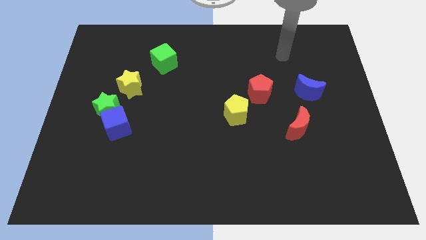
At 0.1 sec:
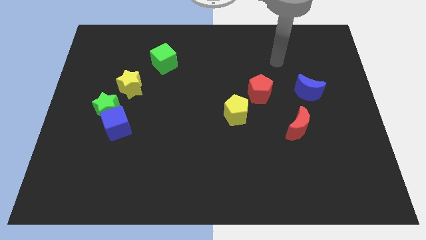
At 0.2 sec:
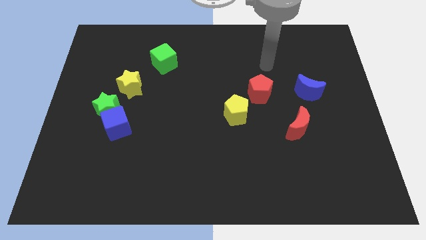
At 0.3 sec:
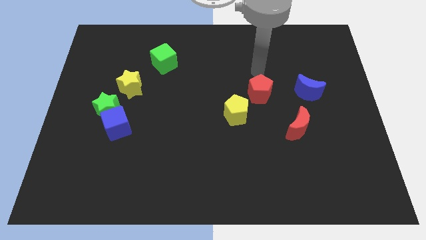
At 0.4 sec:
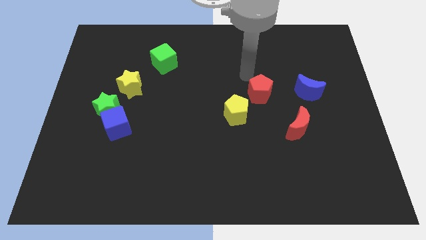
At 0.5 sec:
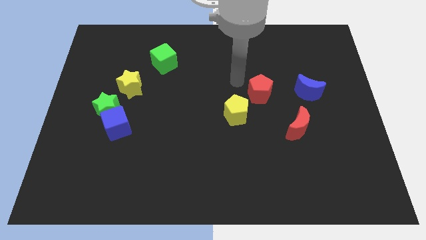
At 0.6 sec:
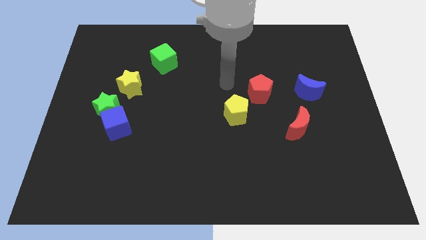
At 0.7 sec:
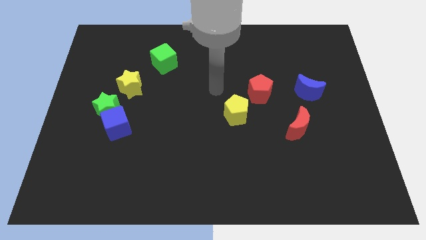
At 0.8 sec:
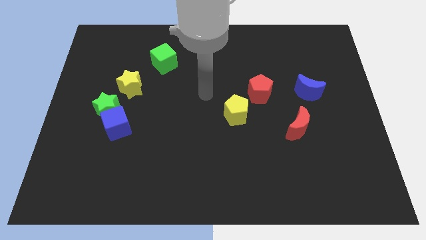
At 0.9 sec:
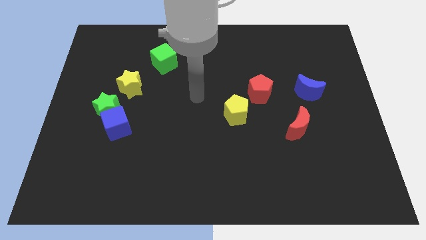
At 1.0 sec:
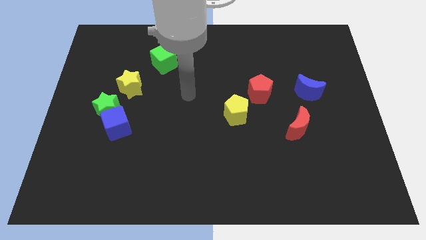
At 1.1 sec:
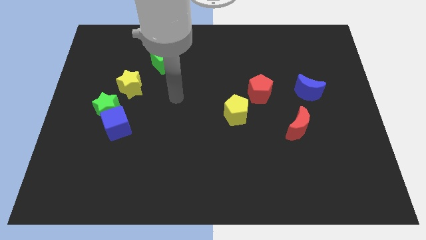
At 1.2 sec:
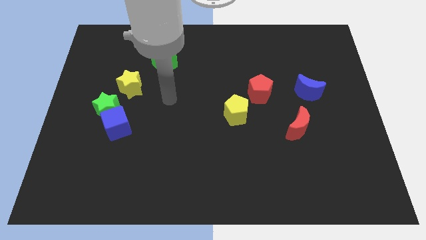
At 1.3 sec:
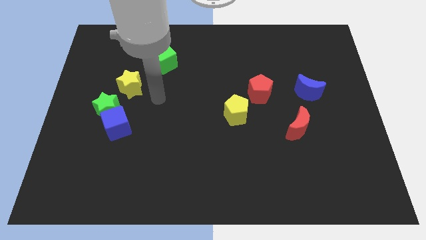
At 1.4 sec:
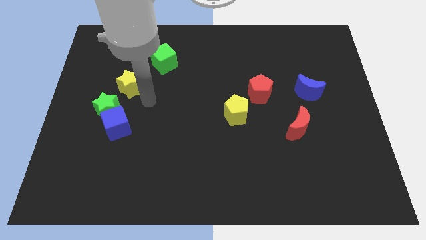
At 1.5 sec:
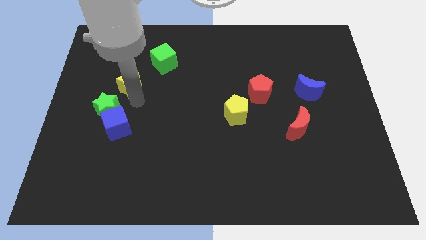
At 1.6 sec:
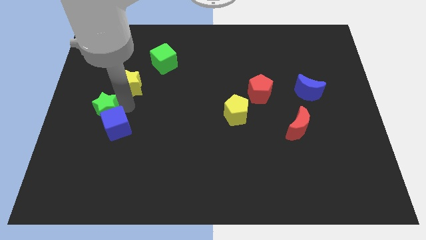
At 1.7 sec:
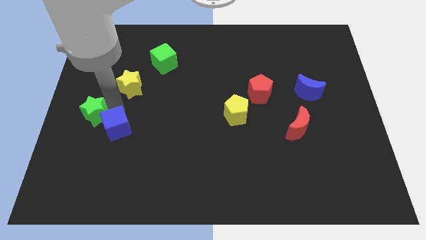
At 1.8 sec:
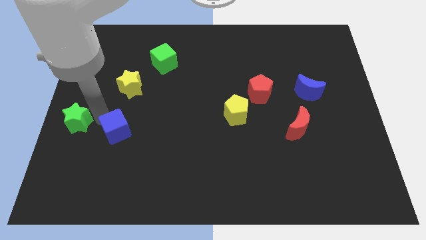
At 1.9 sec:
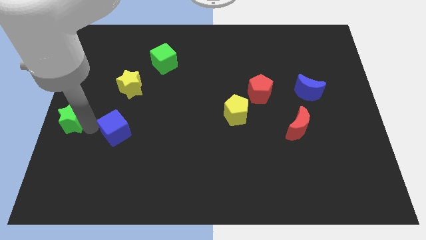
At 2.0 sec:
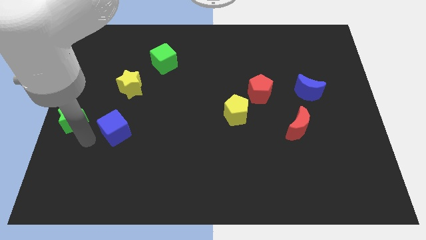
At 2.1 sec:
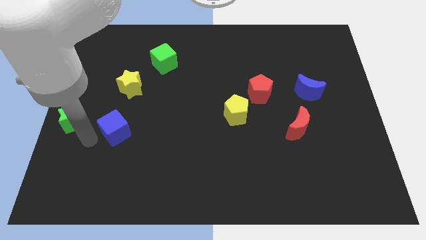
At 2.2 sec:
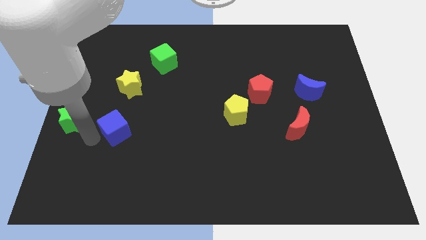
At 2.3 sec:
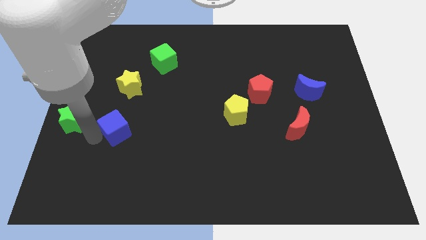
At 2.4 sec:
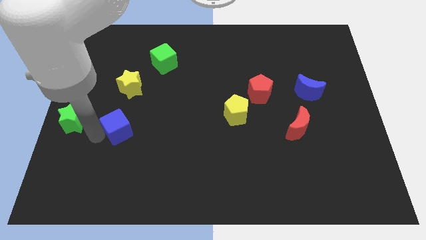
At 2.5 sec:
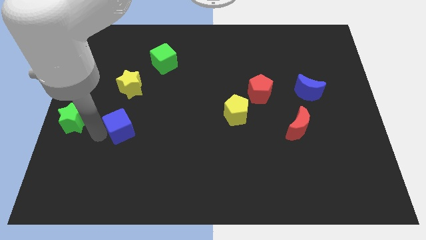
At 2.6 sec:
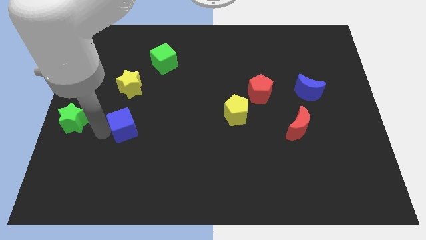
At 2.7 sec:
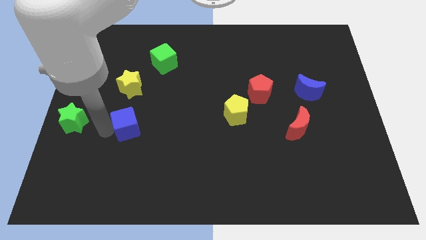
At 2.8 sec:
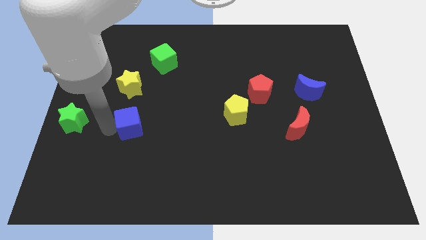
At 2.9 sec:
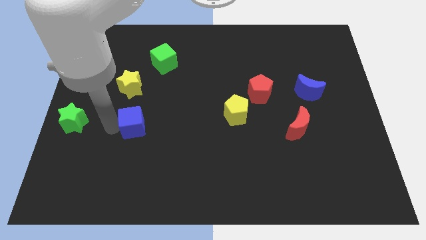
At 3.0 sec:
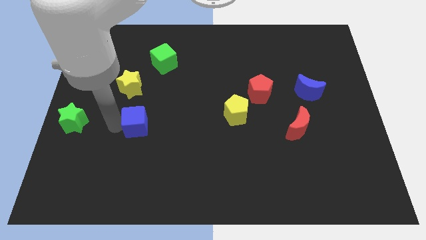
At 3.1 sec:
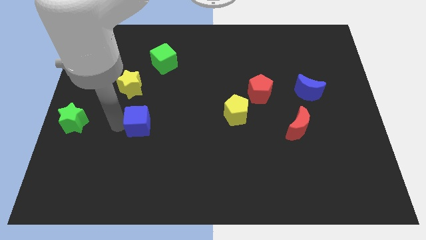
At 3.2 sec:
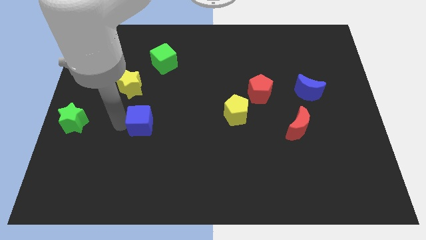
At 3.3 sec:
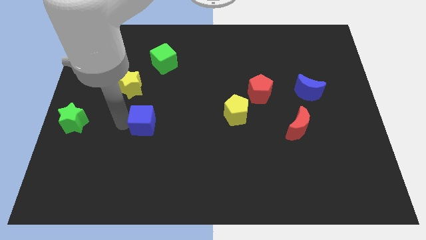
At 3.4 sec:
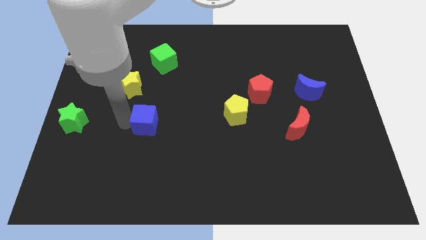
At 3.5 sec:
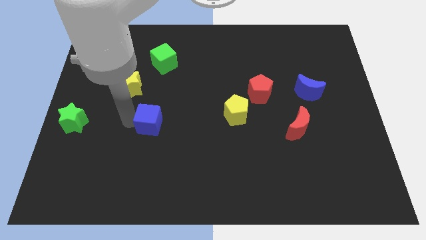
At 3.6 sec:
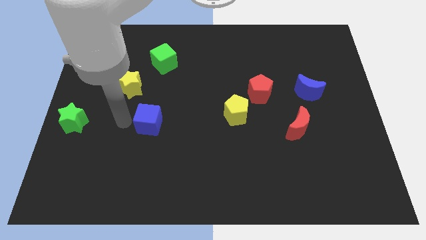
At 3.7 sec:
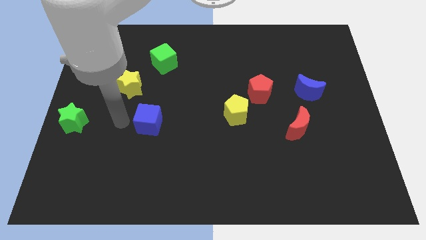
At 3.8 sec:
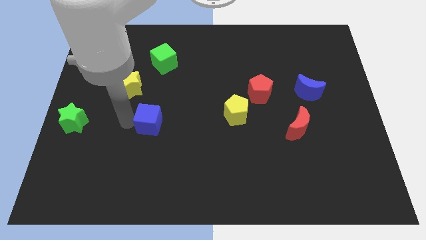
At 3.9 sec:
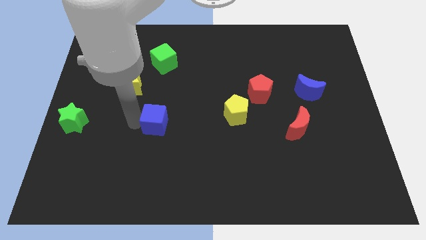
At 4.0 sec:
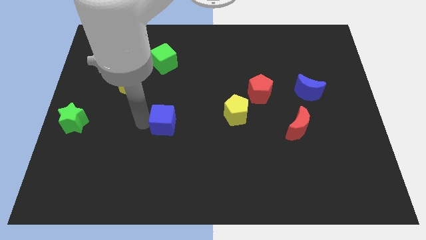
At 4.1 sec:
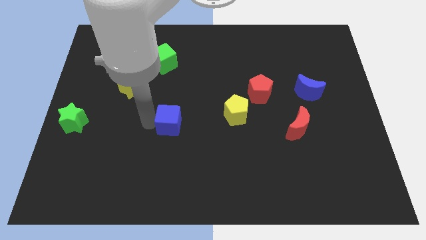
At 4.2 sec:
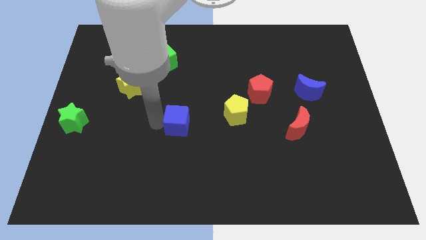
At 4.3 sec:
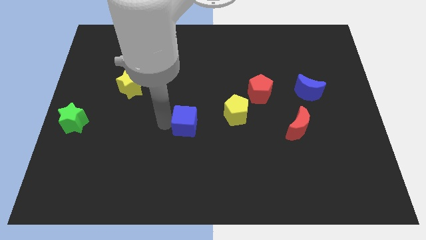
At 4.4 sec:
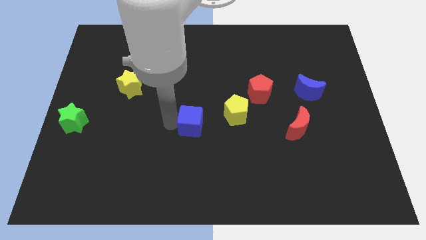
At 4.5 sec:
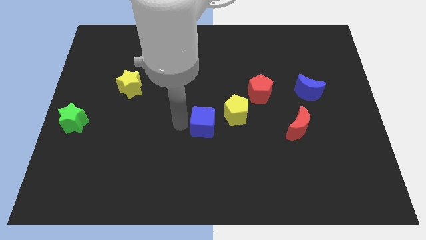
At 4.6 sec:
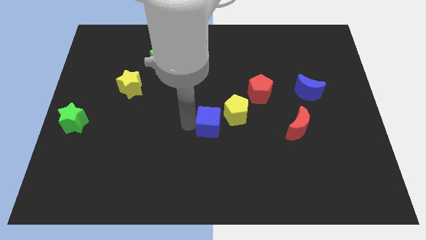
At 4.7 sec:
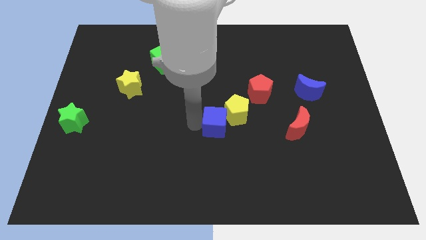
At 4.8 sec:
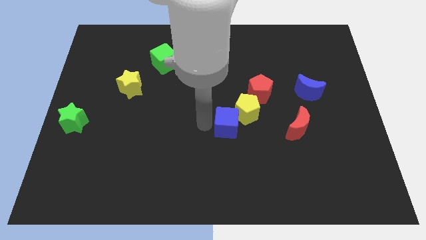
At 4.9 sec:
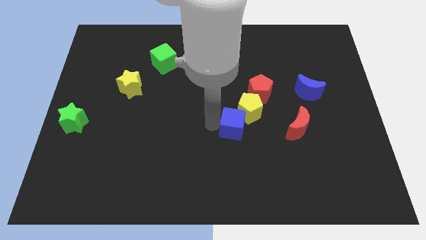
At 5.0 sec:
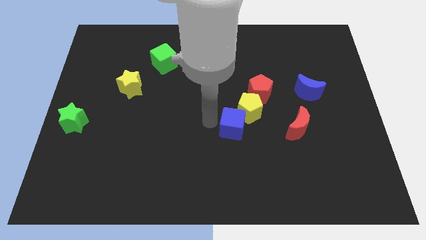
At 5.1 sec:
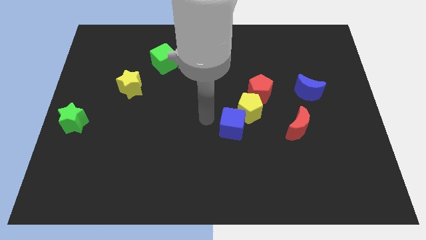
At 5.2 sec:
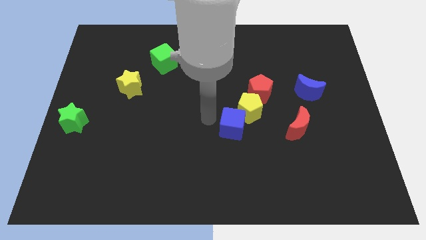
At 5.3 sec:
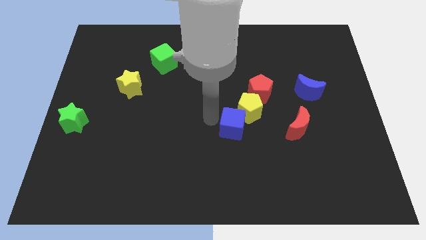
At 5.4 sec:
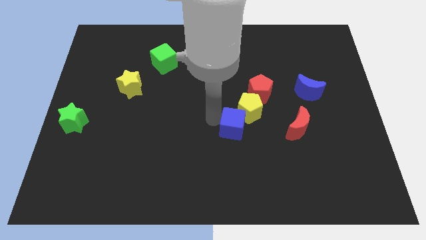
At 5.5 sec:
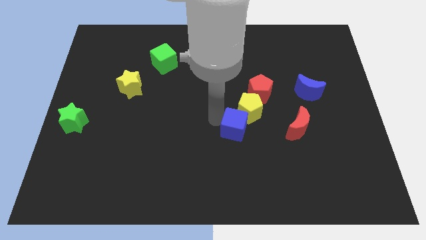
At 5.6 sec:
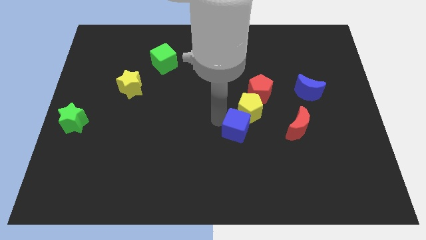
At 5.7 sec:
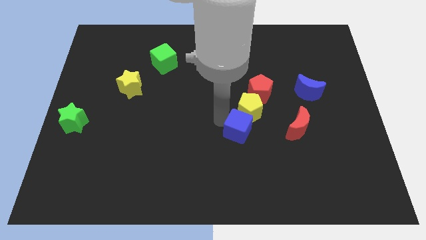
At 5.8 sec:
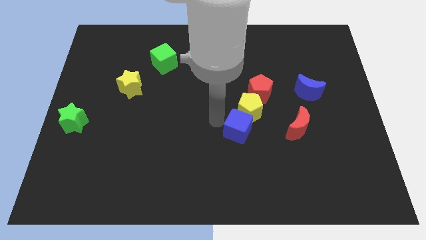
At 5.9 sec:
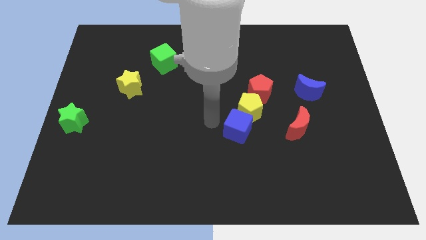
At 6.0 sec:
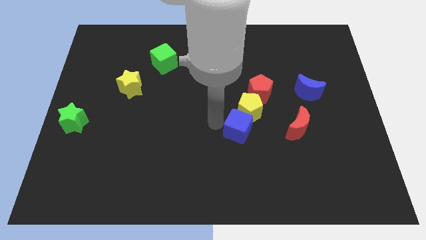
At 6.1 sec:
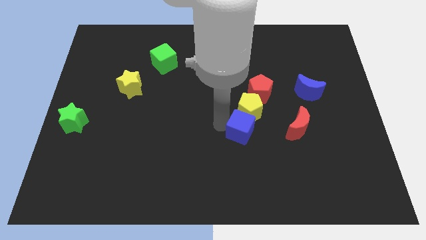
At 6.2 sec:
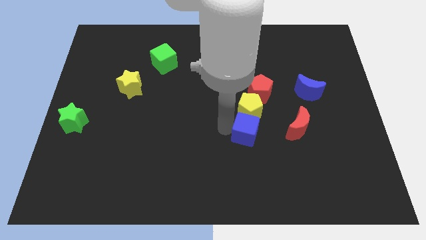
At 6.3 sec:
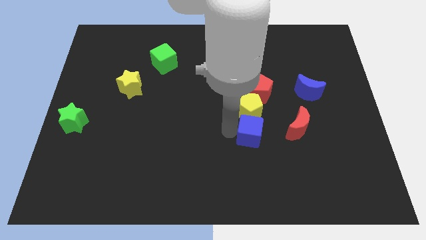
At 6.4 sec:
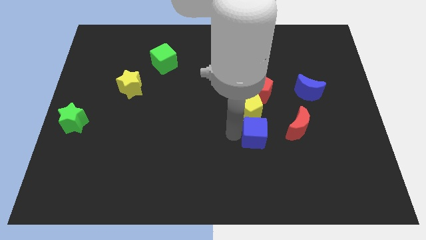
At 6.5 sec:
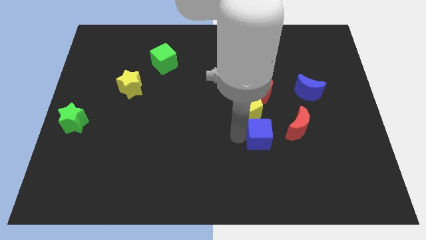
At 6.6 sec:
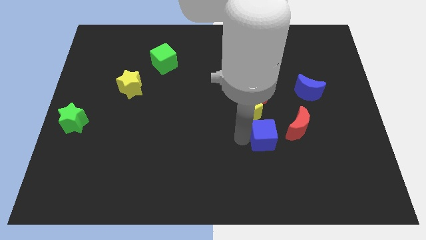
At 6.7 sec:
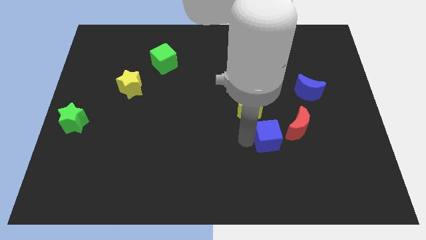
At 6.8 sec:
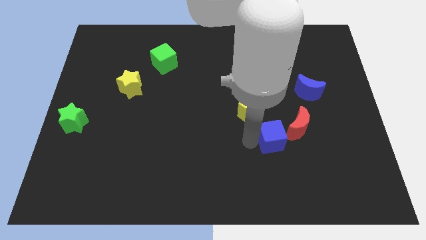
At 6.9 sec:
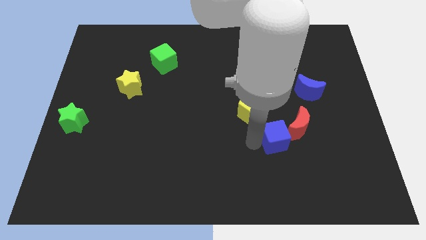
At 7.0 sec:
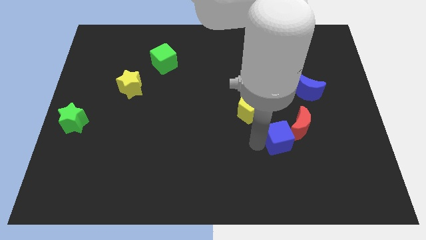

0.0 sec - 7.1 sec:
push the blue cube close to the red moon
